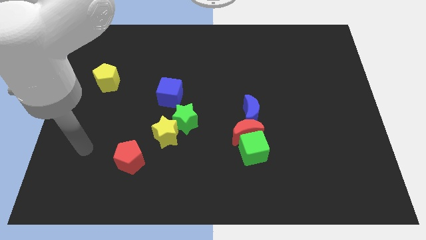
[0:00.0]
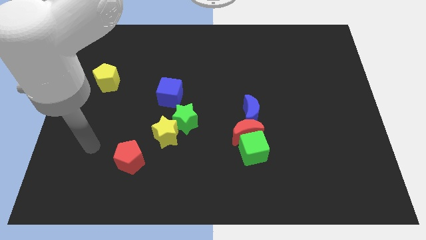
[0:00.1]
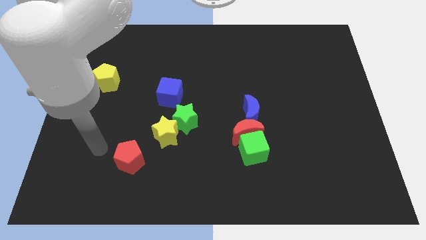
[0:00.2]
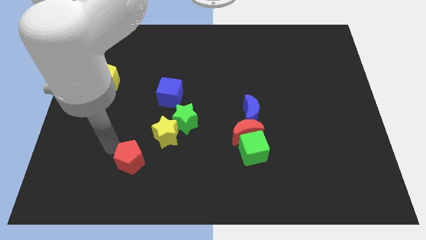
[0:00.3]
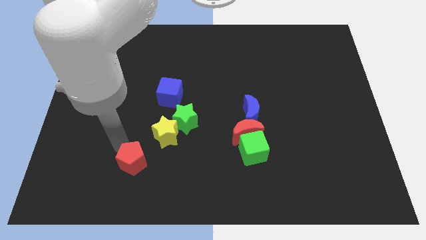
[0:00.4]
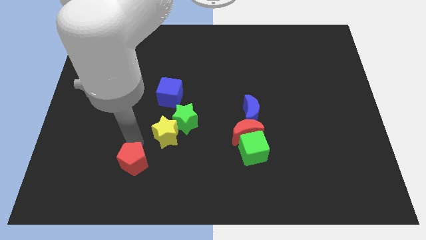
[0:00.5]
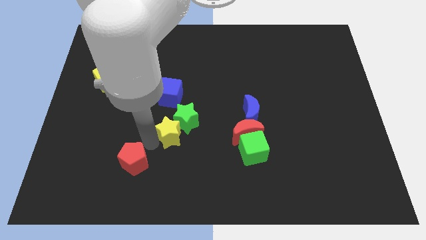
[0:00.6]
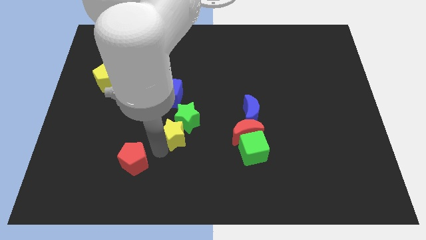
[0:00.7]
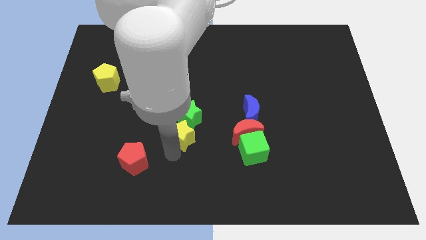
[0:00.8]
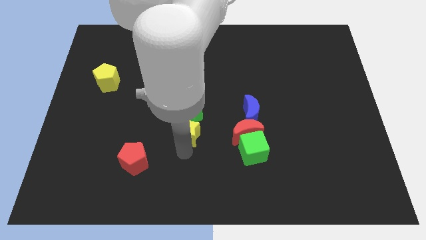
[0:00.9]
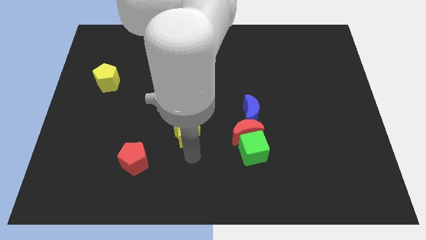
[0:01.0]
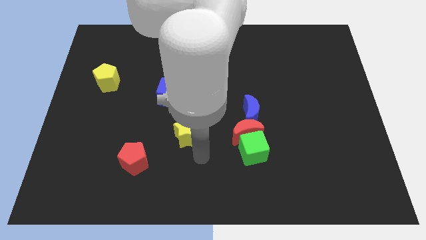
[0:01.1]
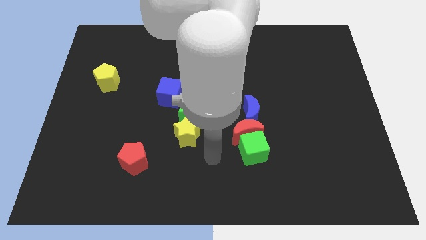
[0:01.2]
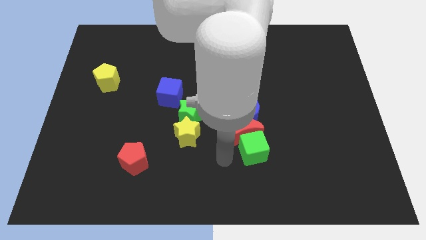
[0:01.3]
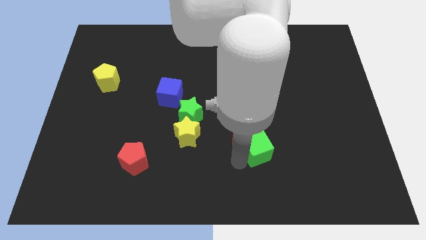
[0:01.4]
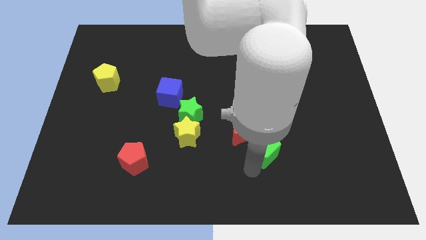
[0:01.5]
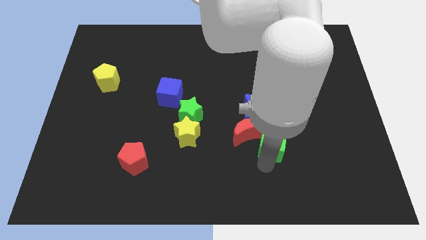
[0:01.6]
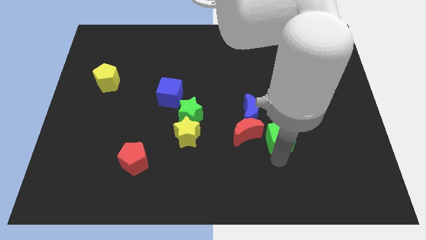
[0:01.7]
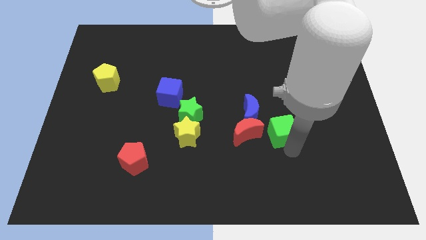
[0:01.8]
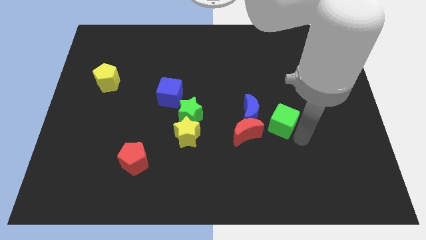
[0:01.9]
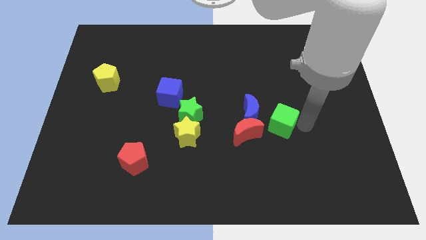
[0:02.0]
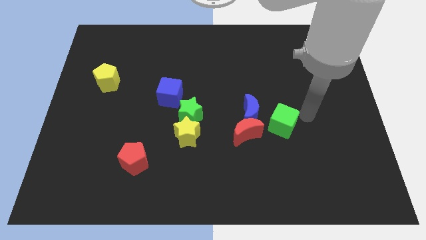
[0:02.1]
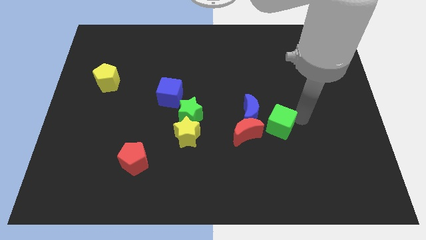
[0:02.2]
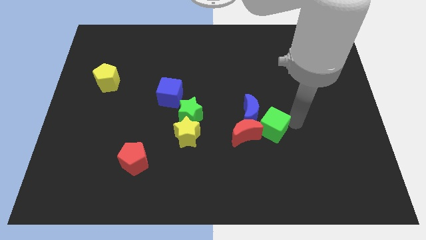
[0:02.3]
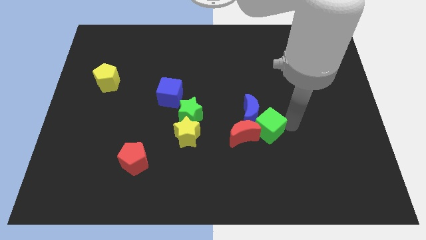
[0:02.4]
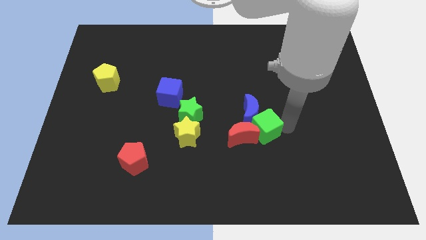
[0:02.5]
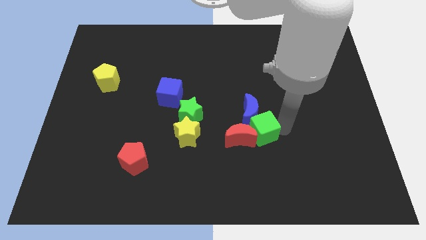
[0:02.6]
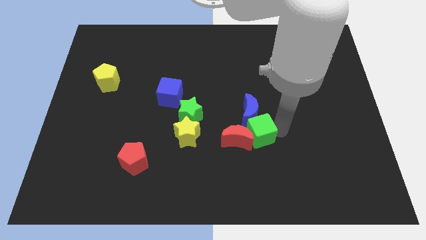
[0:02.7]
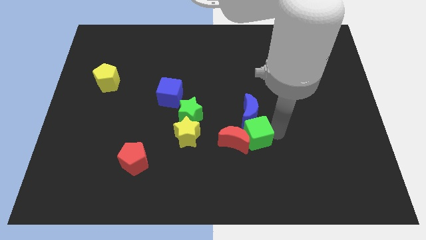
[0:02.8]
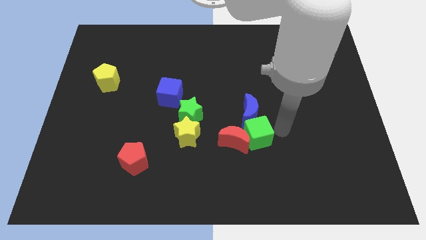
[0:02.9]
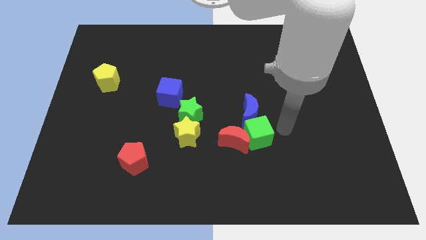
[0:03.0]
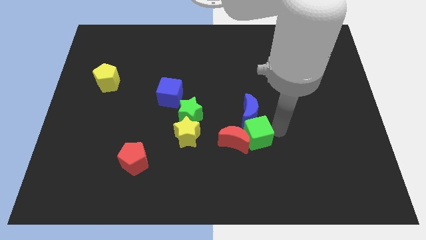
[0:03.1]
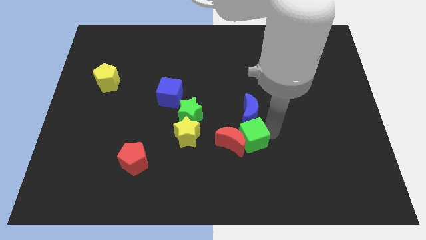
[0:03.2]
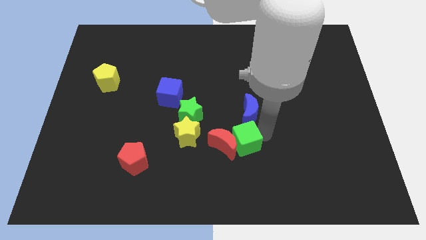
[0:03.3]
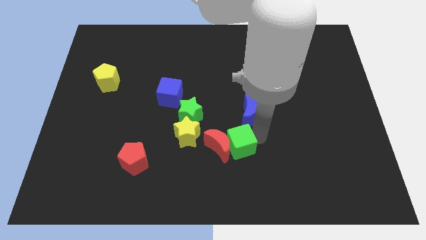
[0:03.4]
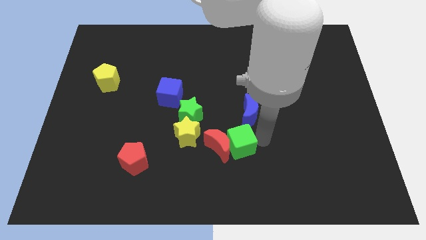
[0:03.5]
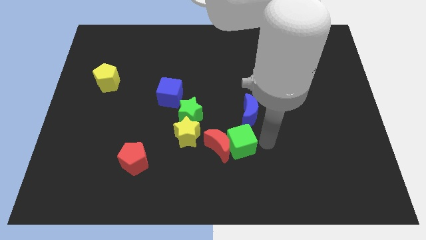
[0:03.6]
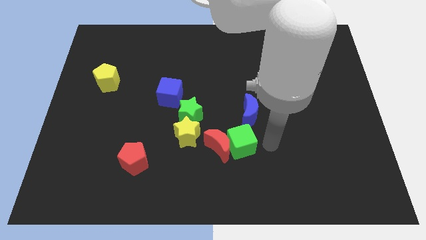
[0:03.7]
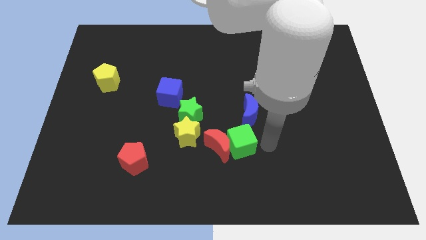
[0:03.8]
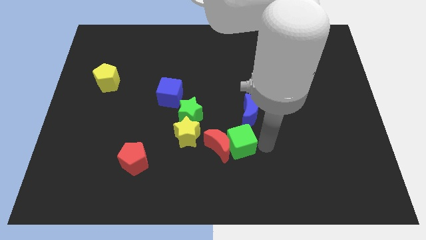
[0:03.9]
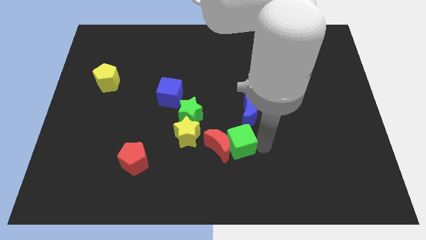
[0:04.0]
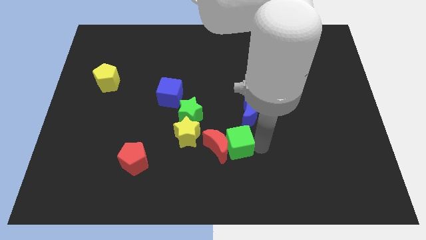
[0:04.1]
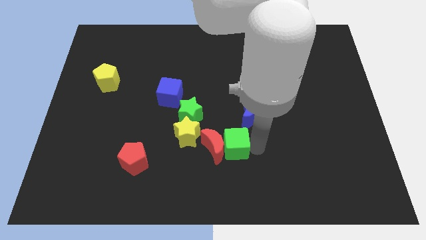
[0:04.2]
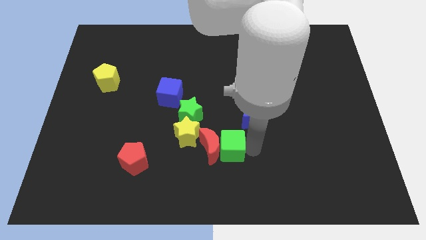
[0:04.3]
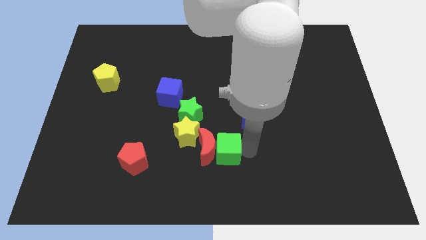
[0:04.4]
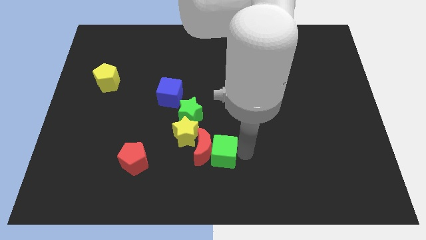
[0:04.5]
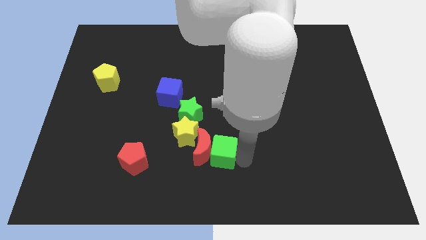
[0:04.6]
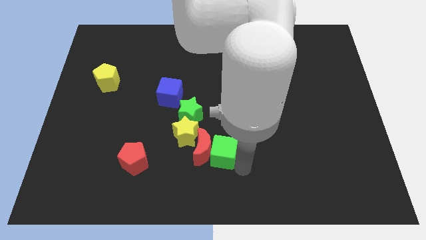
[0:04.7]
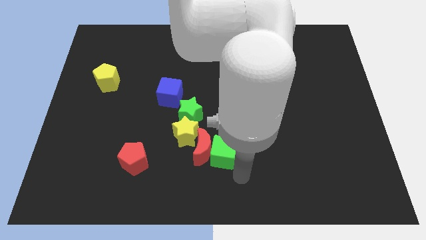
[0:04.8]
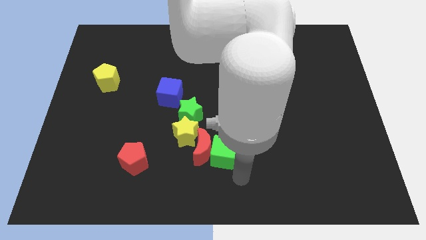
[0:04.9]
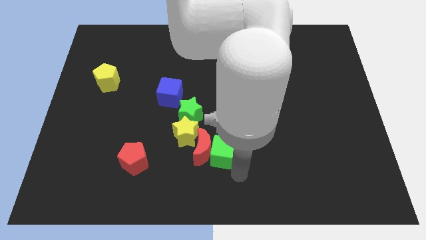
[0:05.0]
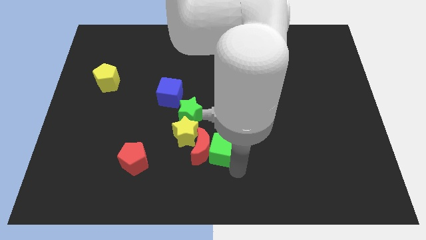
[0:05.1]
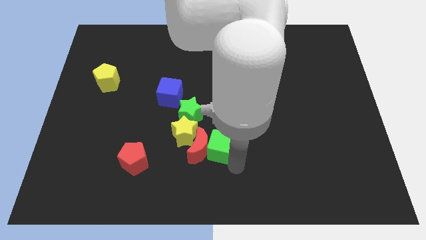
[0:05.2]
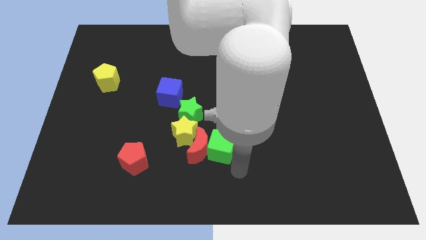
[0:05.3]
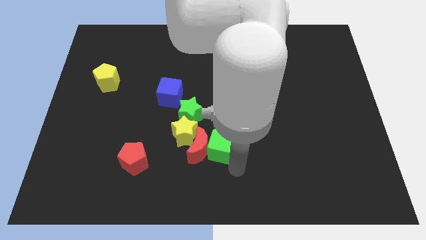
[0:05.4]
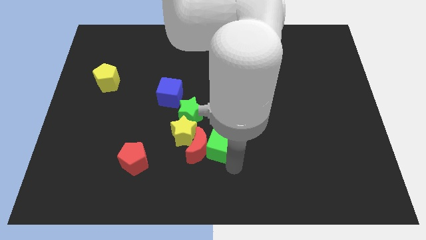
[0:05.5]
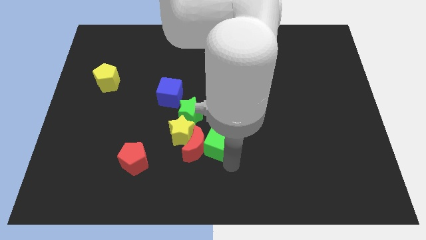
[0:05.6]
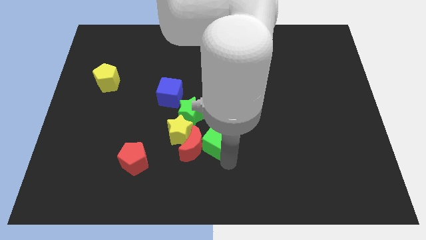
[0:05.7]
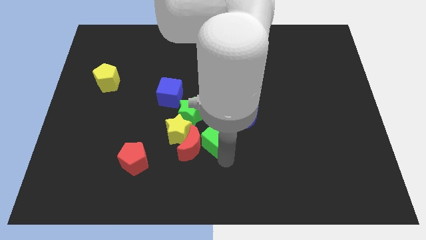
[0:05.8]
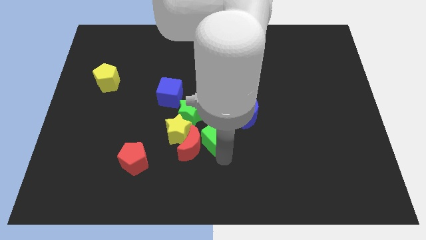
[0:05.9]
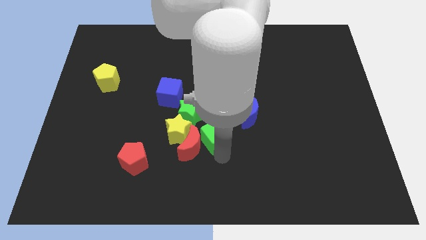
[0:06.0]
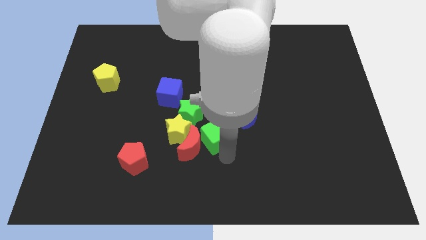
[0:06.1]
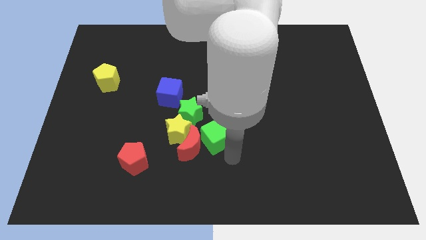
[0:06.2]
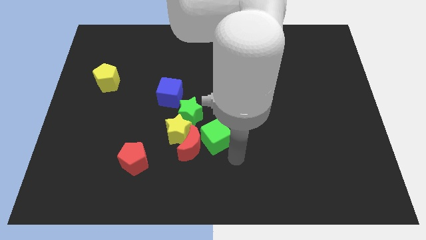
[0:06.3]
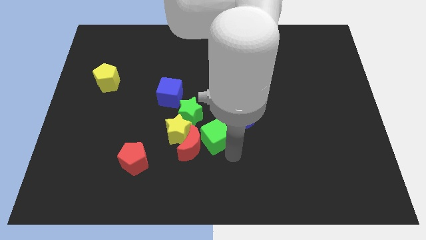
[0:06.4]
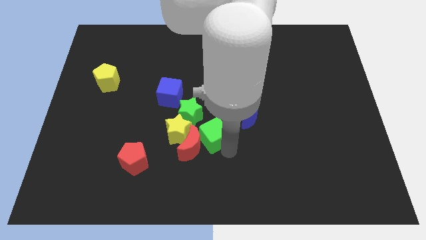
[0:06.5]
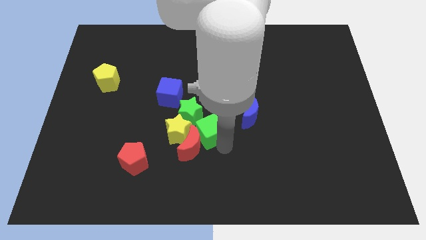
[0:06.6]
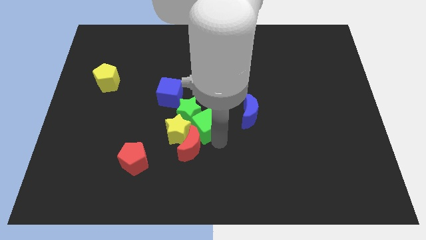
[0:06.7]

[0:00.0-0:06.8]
slide the green cube to the green star
